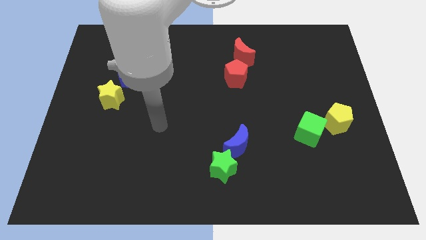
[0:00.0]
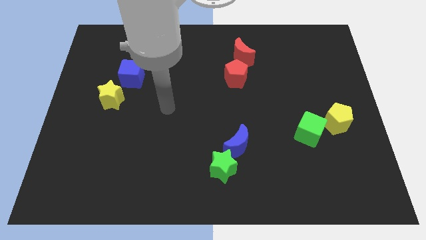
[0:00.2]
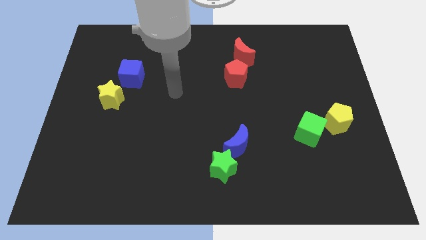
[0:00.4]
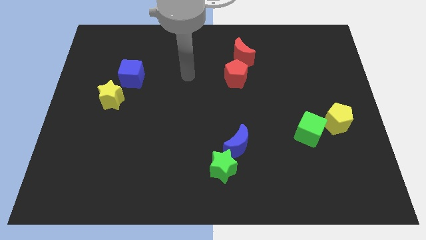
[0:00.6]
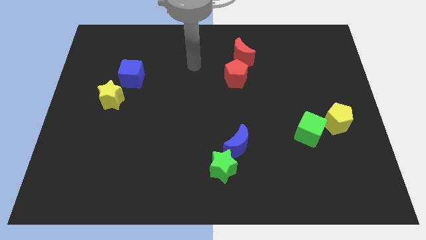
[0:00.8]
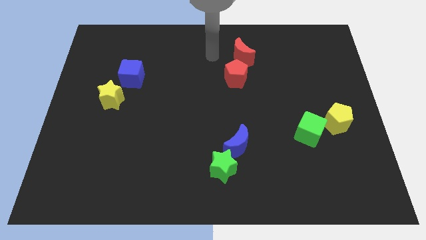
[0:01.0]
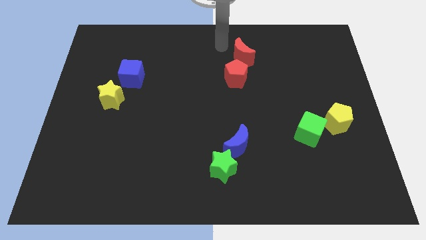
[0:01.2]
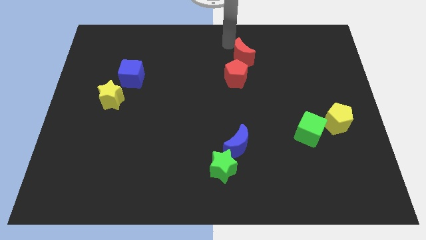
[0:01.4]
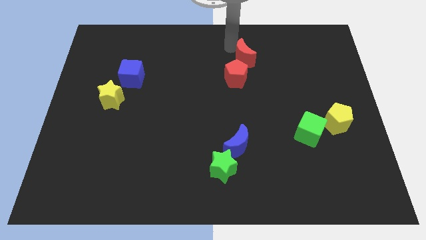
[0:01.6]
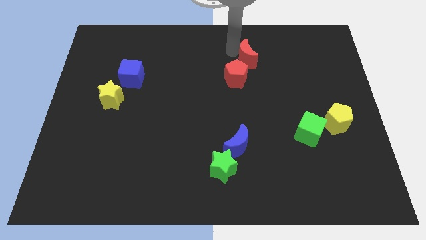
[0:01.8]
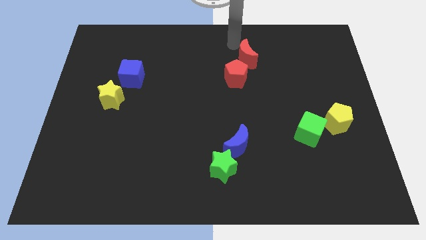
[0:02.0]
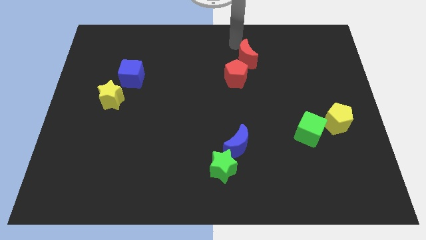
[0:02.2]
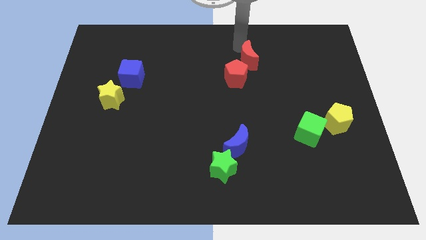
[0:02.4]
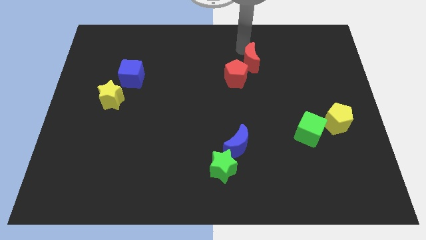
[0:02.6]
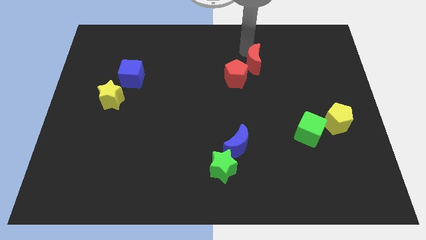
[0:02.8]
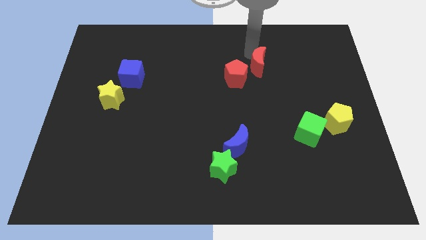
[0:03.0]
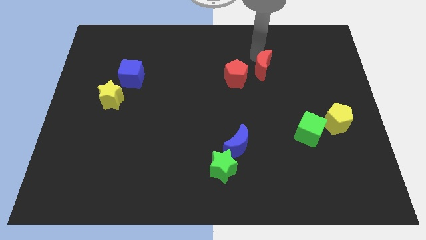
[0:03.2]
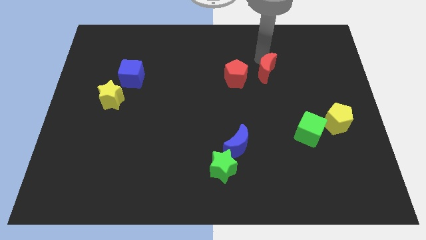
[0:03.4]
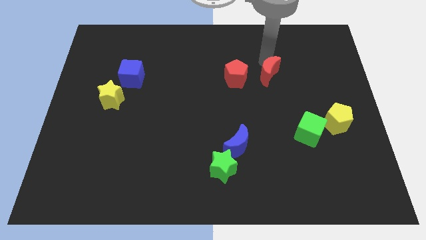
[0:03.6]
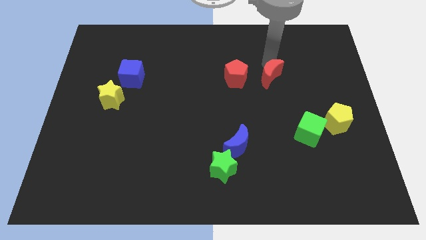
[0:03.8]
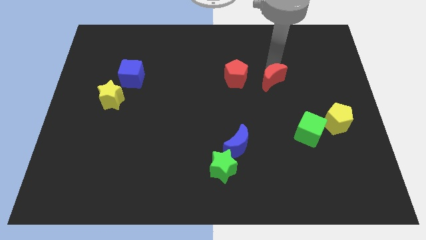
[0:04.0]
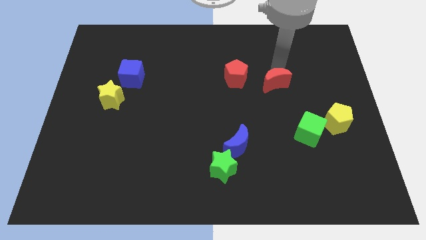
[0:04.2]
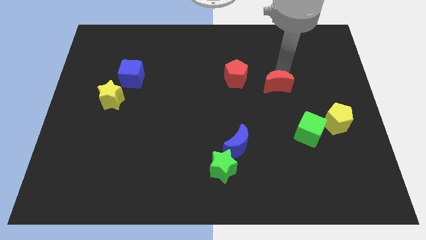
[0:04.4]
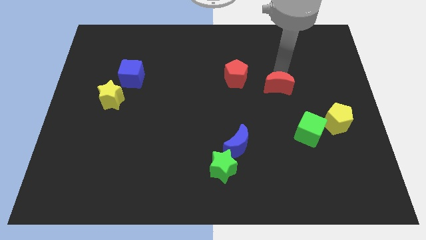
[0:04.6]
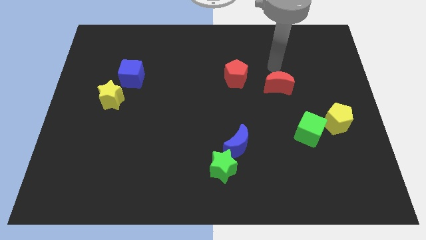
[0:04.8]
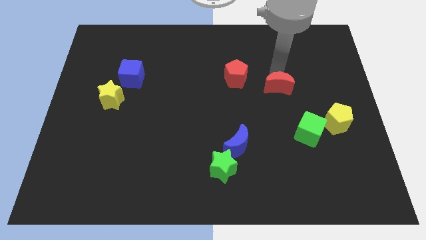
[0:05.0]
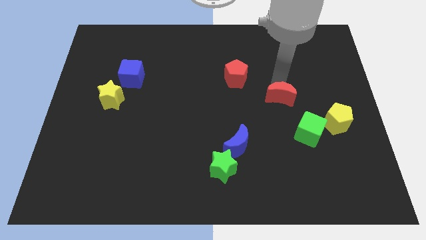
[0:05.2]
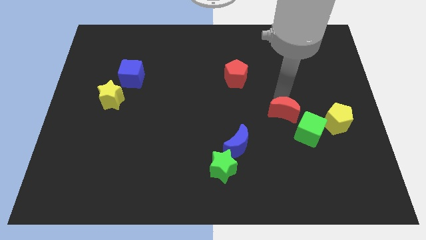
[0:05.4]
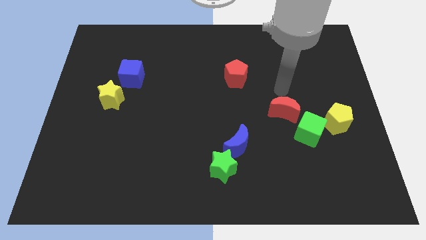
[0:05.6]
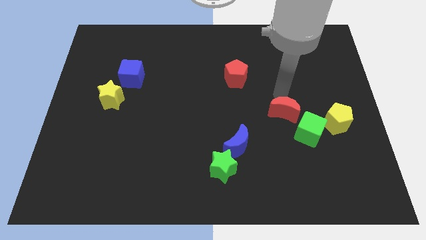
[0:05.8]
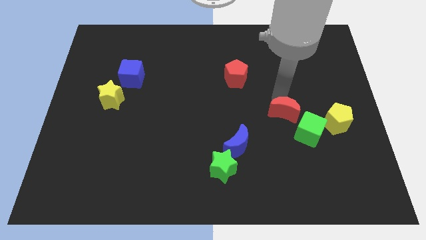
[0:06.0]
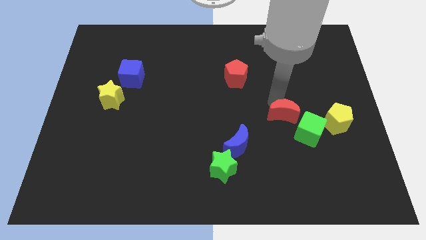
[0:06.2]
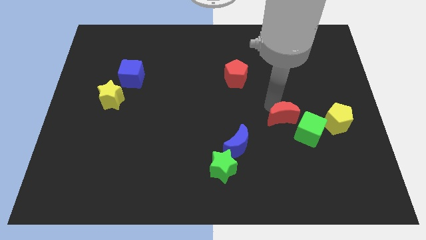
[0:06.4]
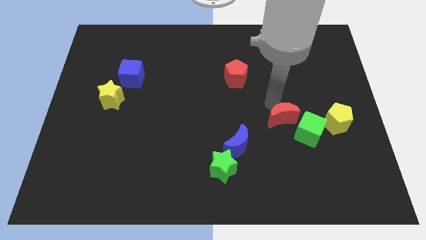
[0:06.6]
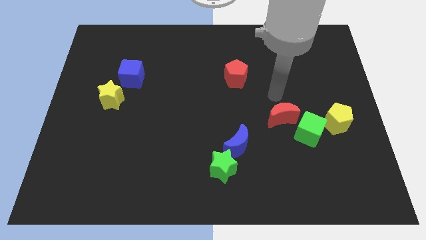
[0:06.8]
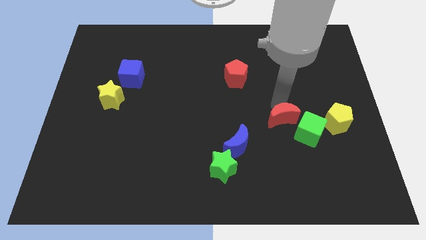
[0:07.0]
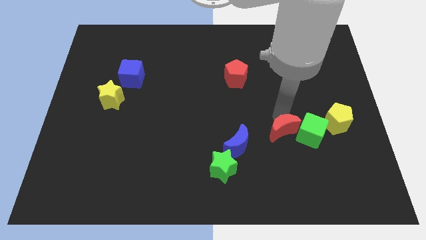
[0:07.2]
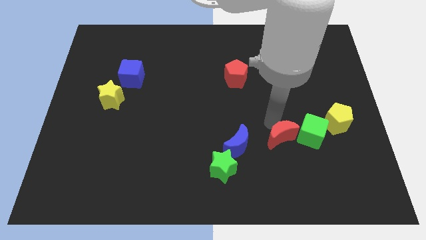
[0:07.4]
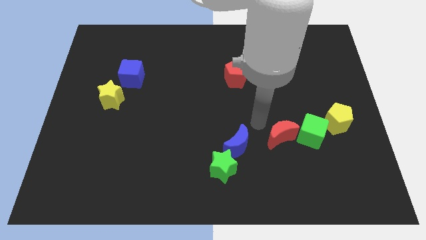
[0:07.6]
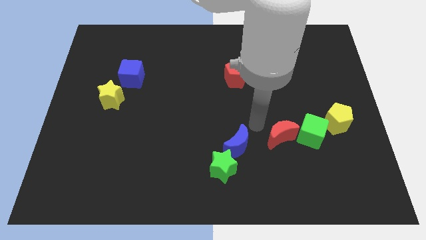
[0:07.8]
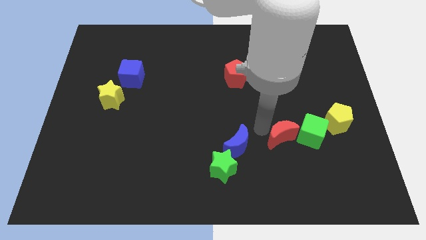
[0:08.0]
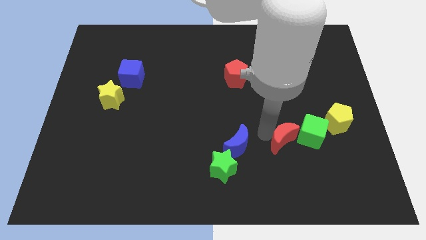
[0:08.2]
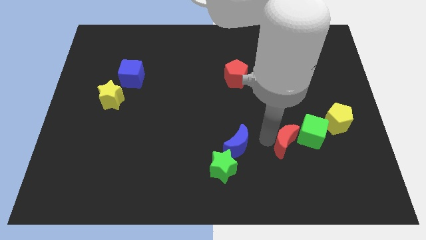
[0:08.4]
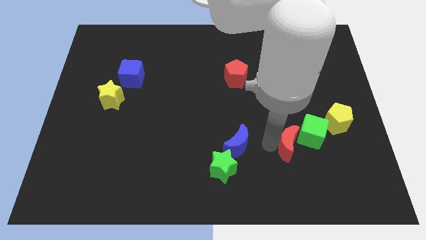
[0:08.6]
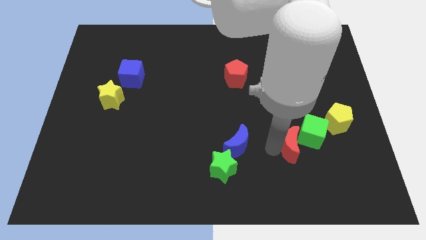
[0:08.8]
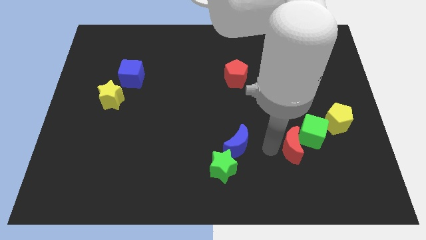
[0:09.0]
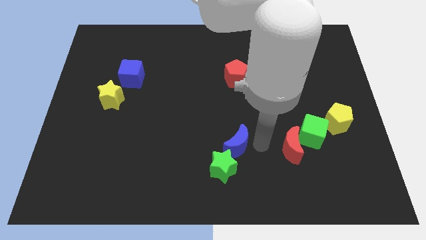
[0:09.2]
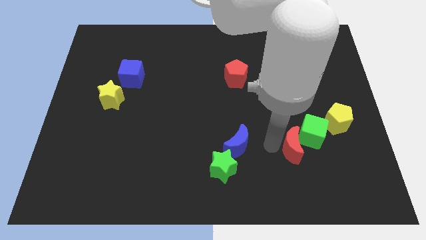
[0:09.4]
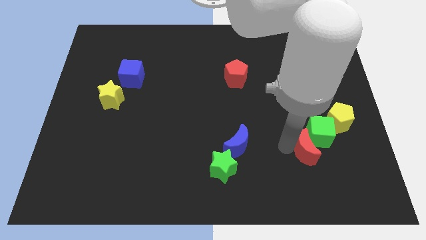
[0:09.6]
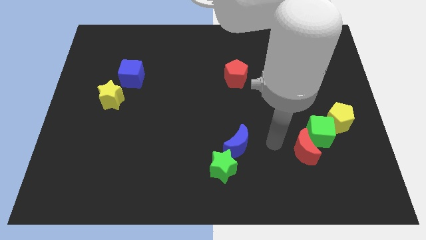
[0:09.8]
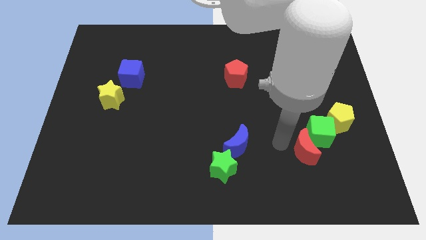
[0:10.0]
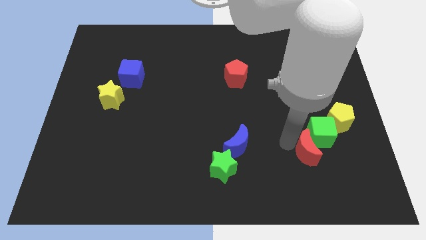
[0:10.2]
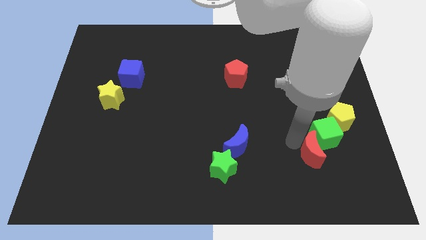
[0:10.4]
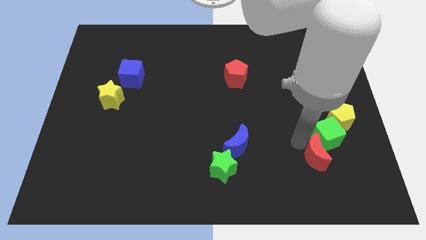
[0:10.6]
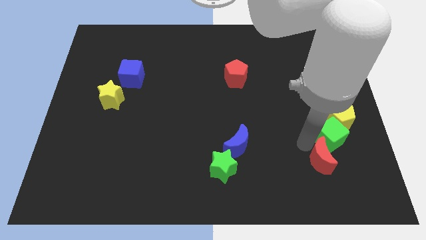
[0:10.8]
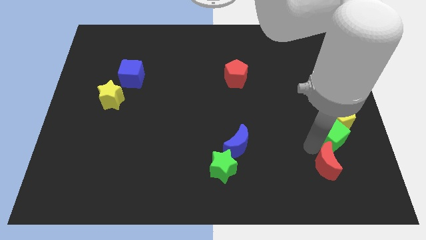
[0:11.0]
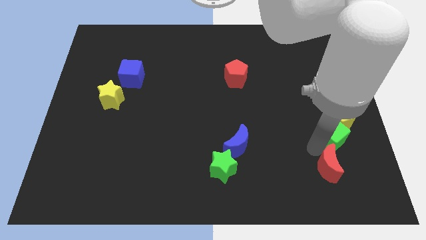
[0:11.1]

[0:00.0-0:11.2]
slide the red moon to the bottom of the yellow pentagon

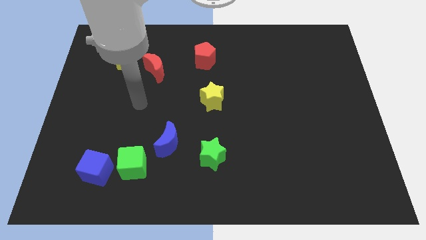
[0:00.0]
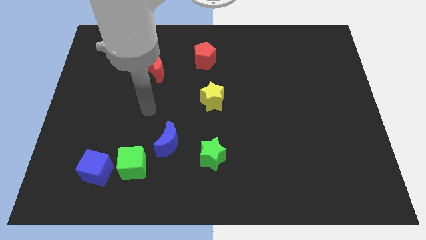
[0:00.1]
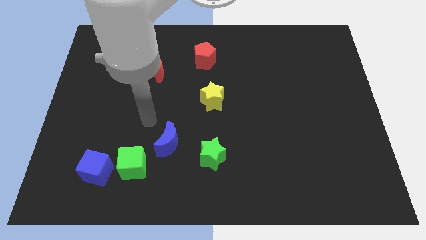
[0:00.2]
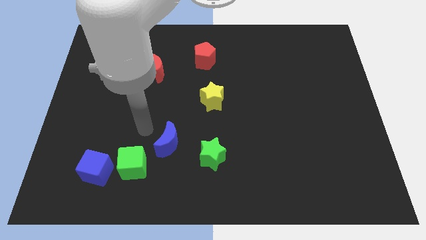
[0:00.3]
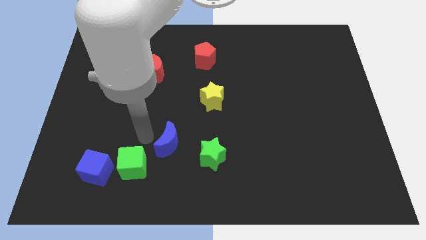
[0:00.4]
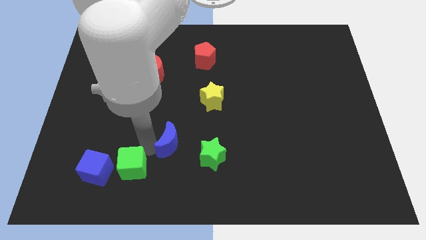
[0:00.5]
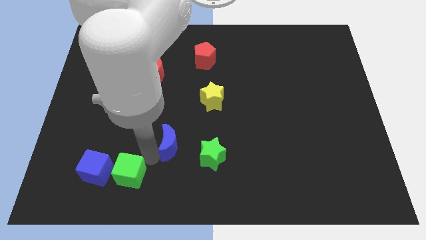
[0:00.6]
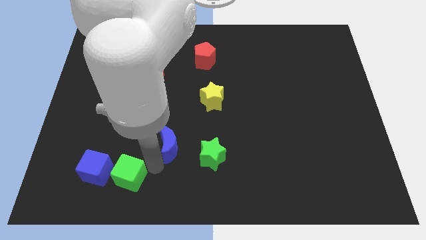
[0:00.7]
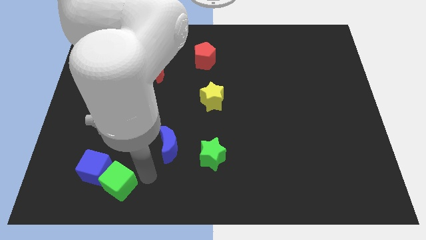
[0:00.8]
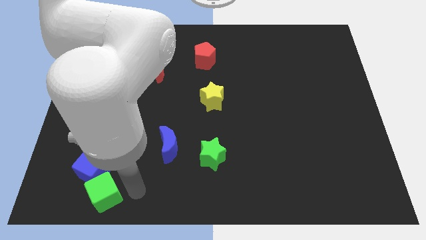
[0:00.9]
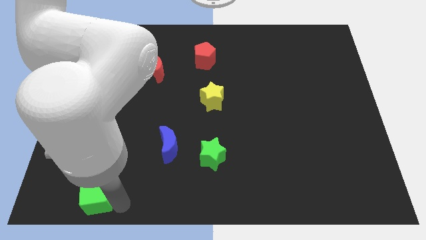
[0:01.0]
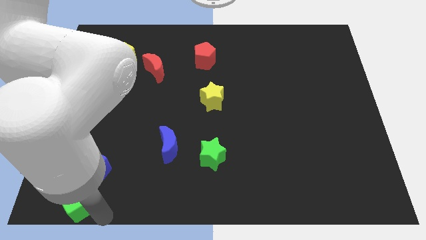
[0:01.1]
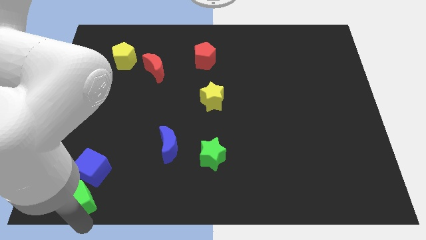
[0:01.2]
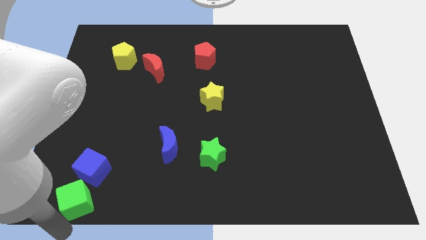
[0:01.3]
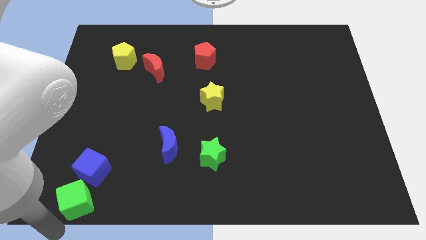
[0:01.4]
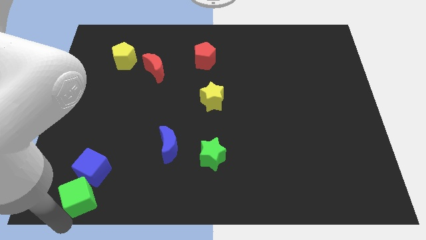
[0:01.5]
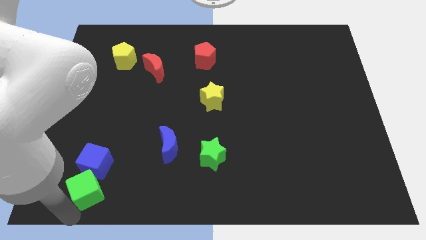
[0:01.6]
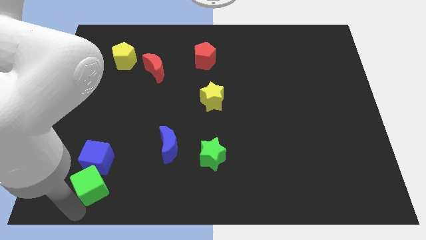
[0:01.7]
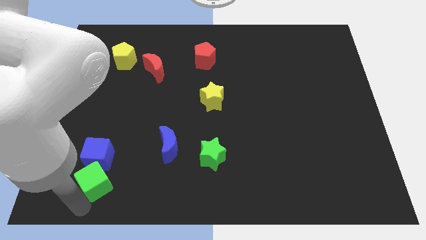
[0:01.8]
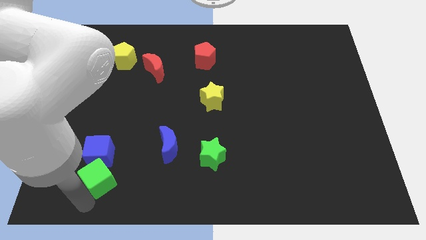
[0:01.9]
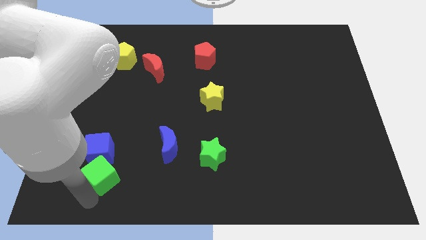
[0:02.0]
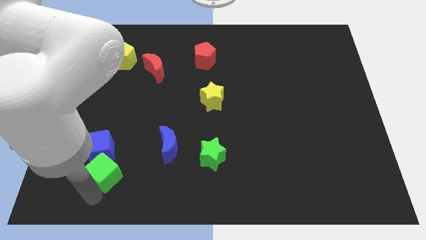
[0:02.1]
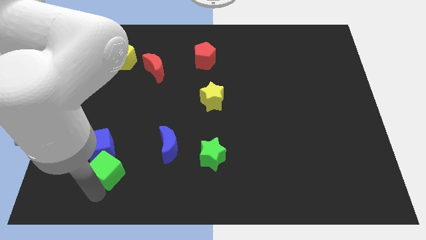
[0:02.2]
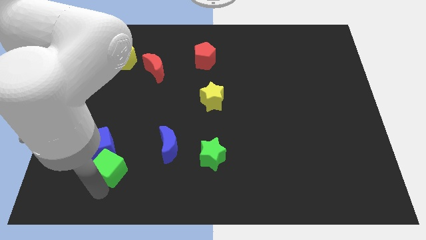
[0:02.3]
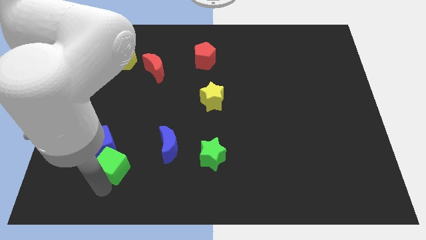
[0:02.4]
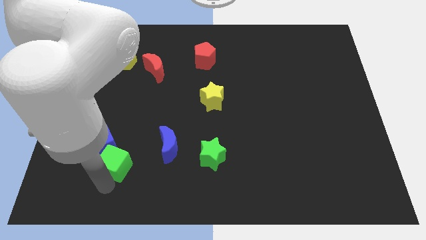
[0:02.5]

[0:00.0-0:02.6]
move the green cube to the left of the blue moon
